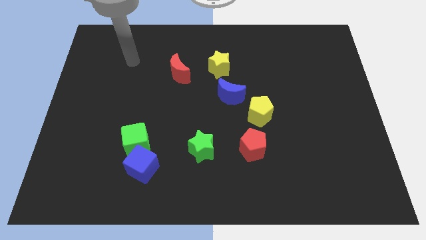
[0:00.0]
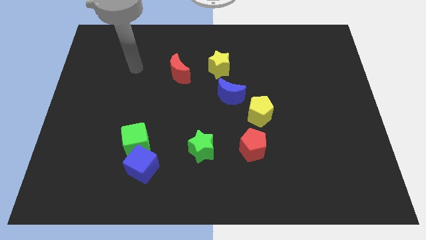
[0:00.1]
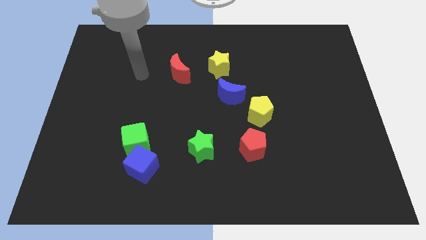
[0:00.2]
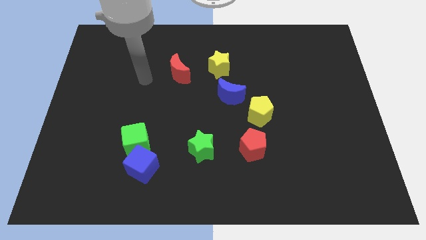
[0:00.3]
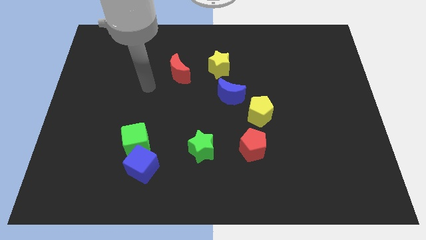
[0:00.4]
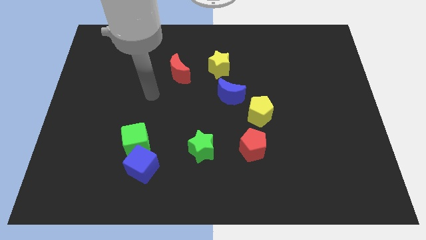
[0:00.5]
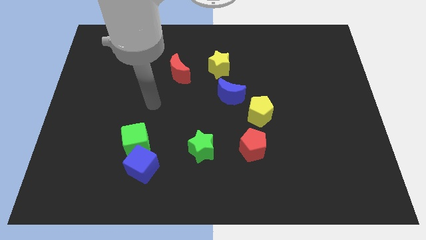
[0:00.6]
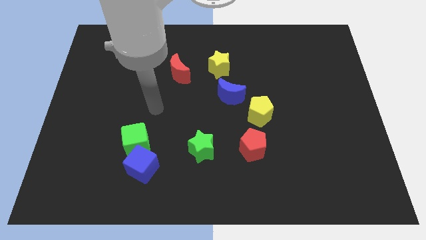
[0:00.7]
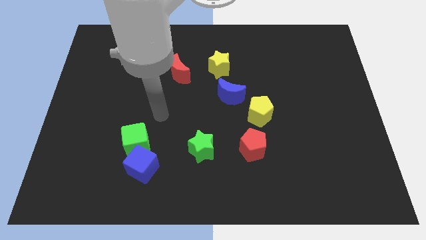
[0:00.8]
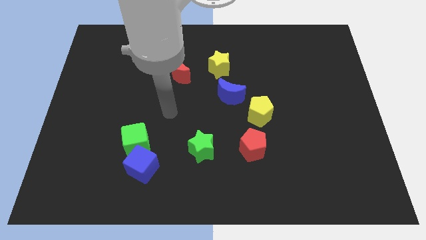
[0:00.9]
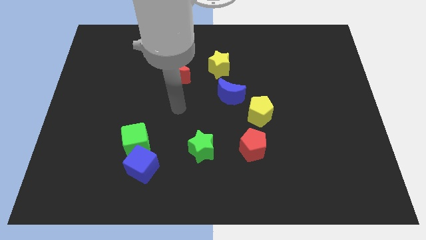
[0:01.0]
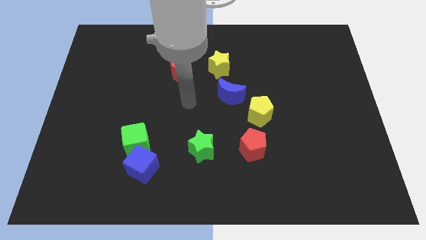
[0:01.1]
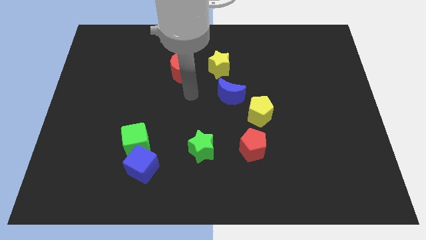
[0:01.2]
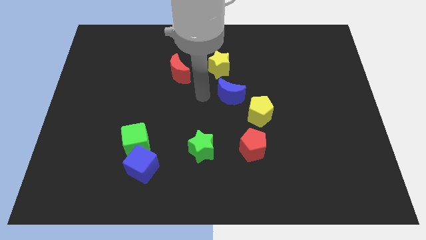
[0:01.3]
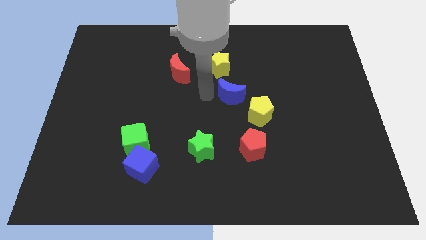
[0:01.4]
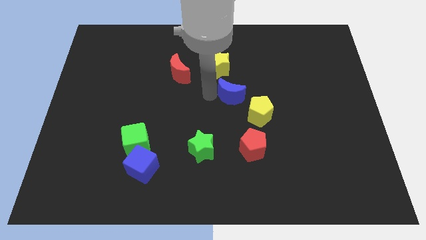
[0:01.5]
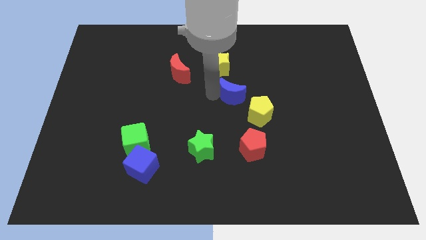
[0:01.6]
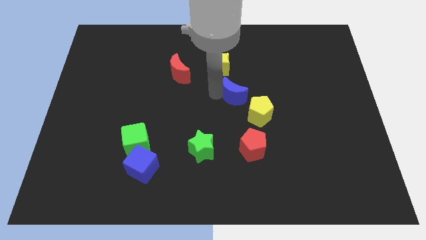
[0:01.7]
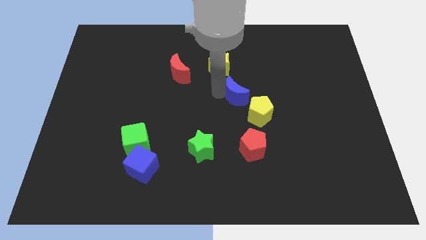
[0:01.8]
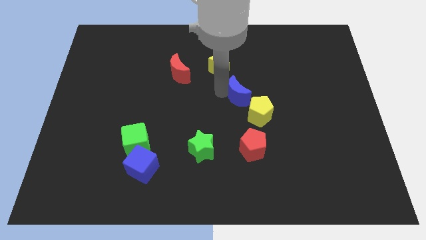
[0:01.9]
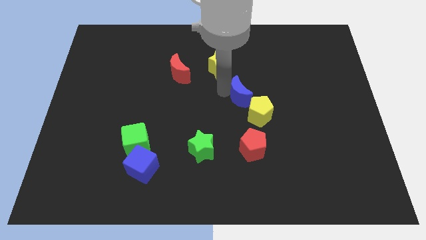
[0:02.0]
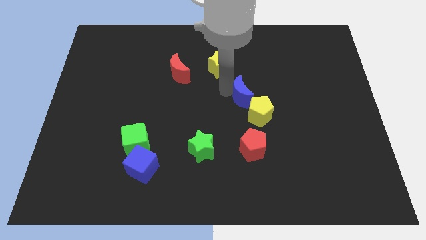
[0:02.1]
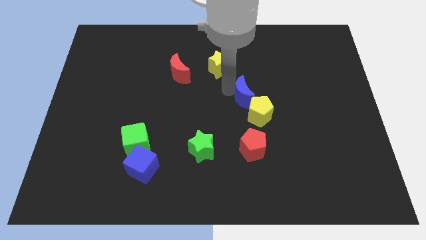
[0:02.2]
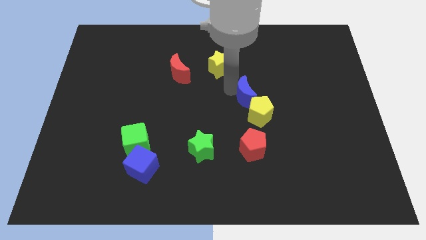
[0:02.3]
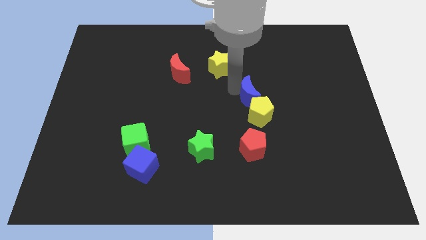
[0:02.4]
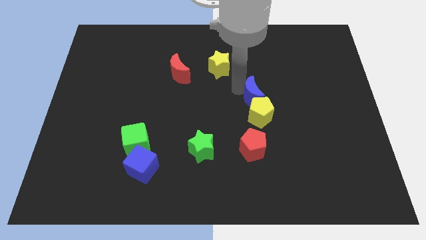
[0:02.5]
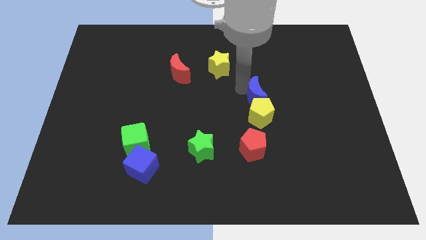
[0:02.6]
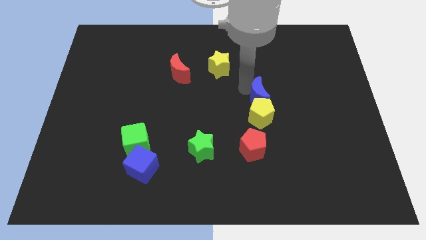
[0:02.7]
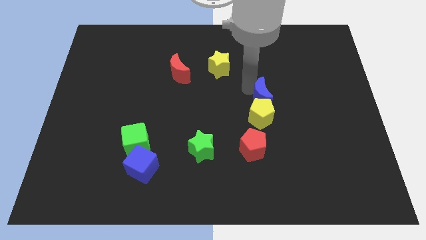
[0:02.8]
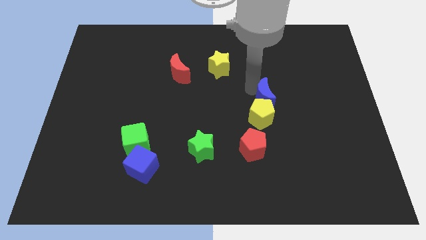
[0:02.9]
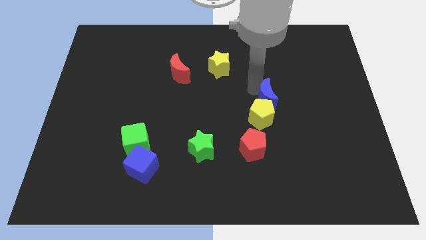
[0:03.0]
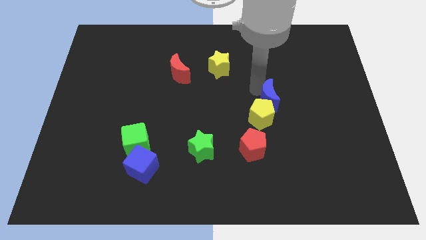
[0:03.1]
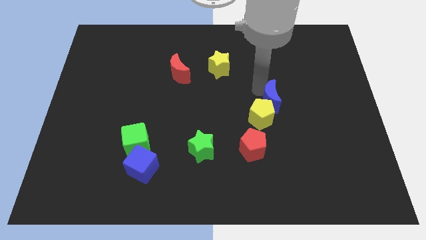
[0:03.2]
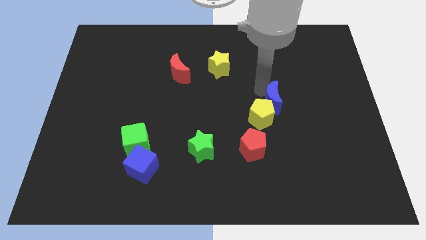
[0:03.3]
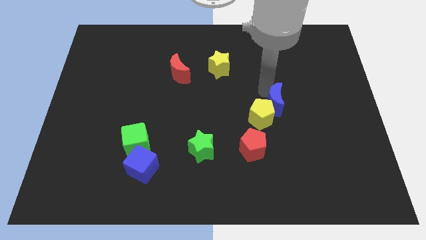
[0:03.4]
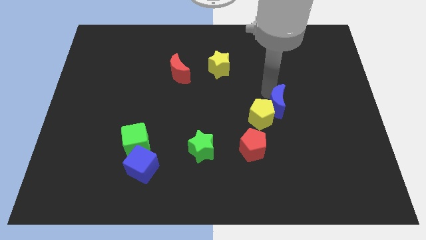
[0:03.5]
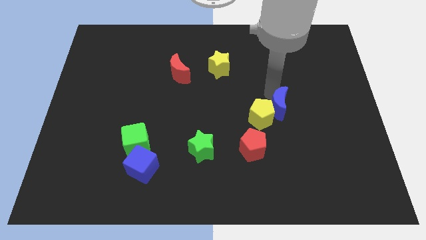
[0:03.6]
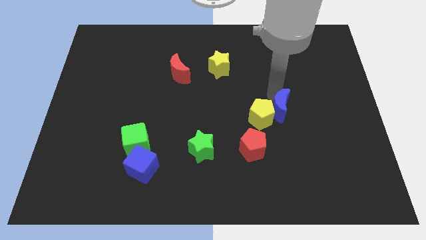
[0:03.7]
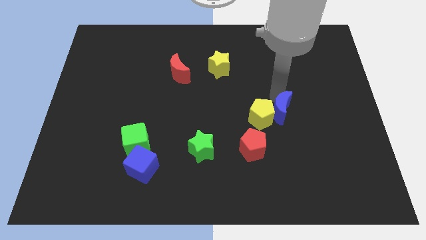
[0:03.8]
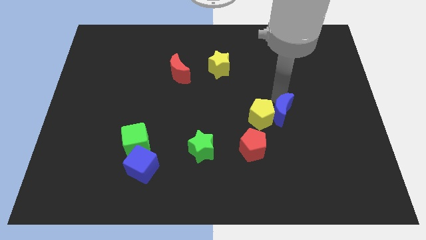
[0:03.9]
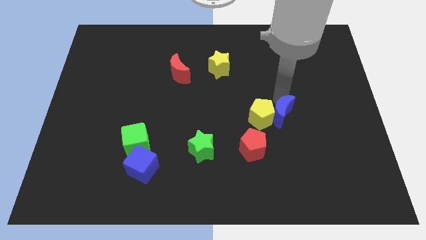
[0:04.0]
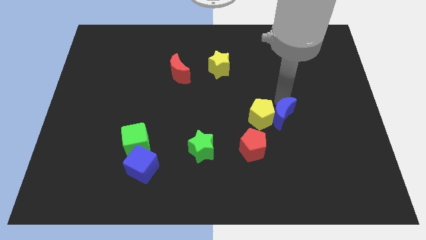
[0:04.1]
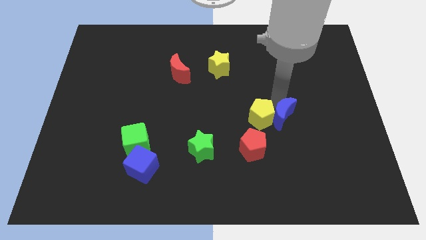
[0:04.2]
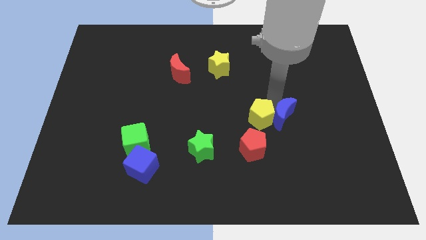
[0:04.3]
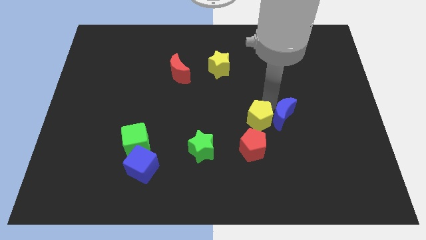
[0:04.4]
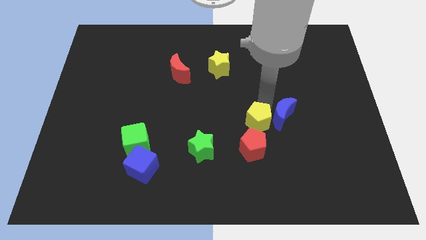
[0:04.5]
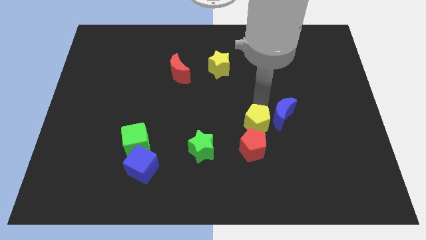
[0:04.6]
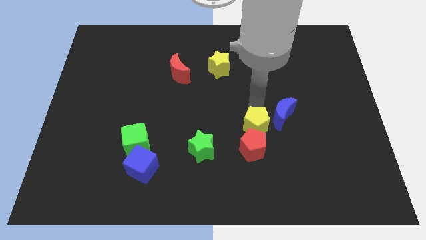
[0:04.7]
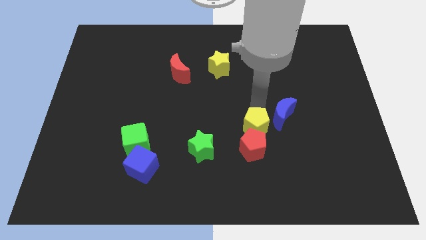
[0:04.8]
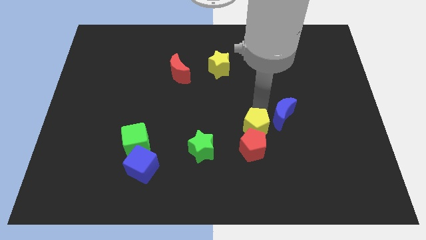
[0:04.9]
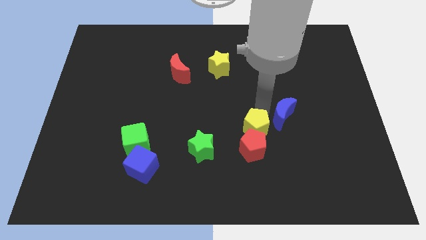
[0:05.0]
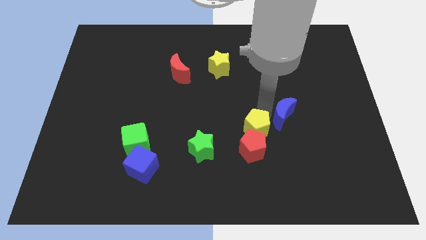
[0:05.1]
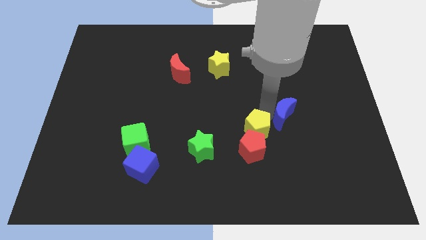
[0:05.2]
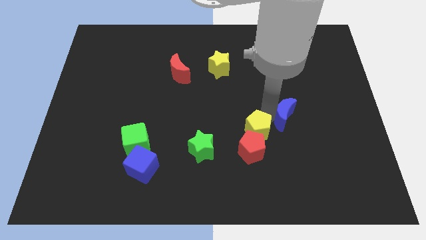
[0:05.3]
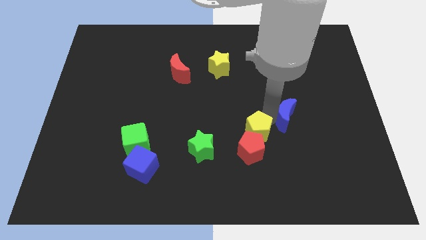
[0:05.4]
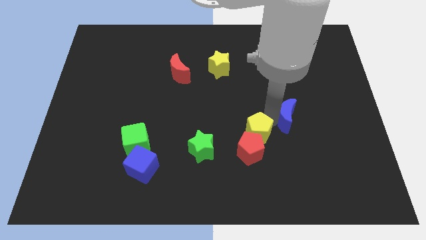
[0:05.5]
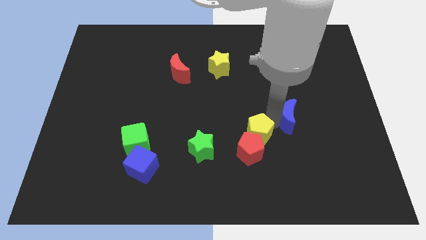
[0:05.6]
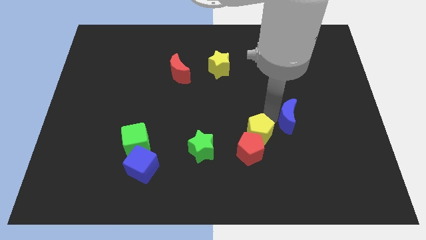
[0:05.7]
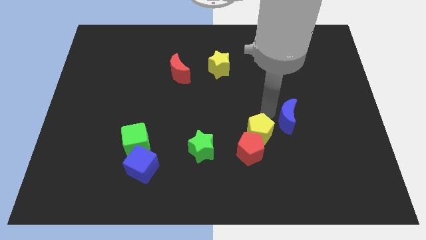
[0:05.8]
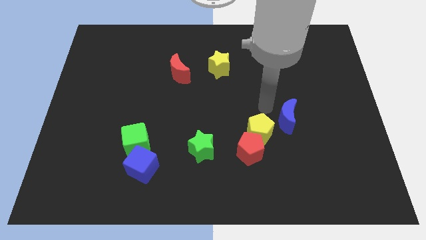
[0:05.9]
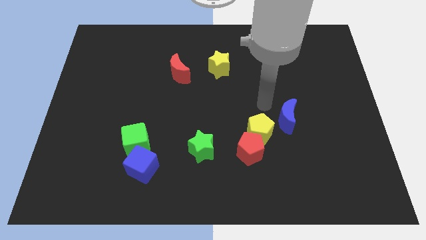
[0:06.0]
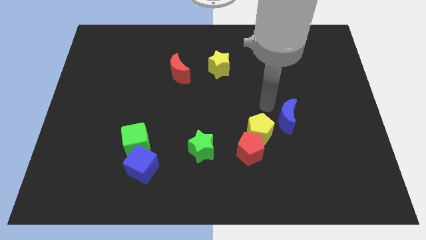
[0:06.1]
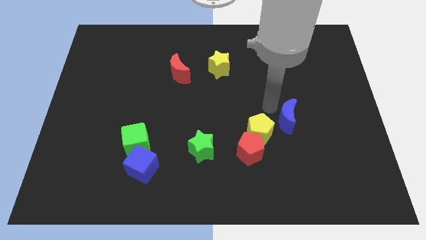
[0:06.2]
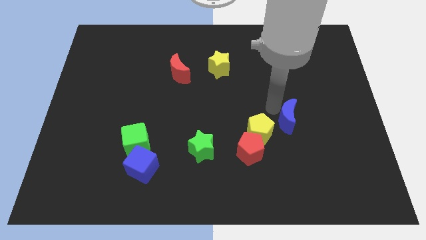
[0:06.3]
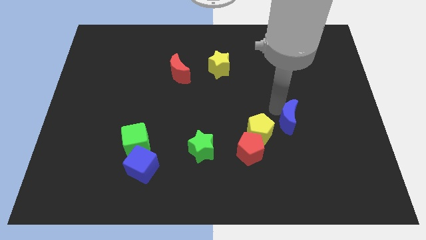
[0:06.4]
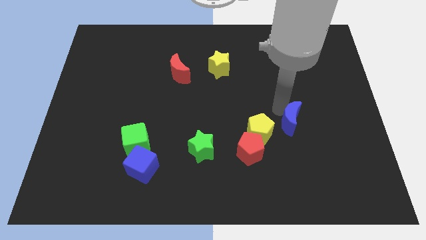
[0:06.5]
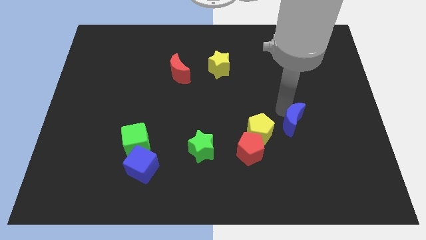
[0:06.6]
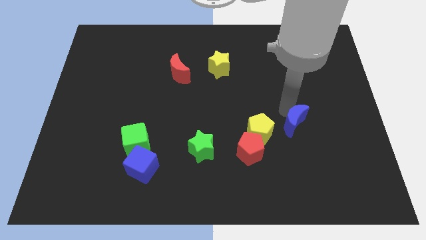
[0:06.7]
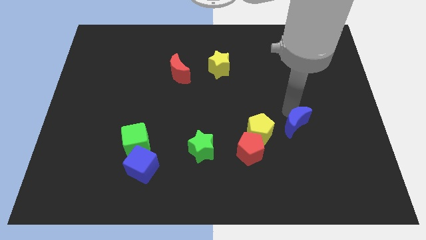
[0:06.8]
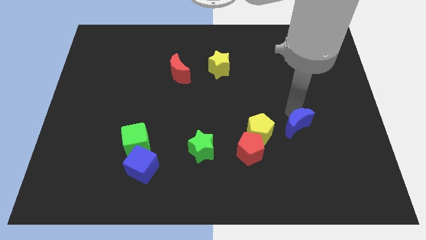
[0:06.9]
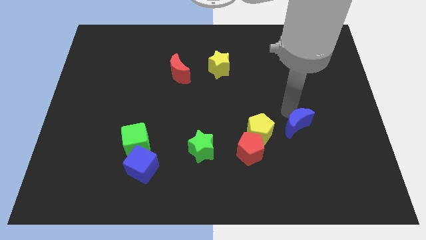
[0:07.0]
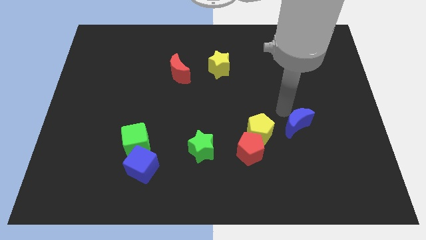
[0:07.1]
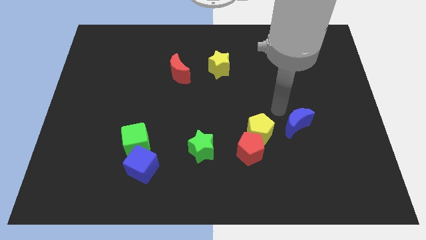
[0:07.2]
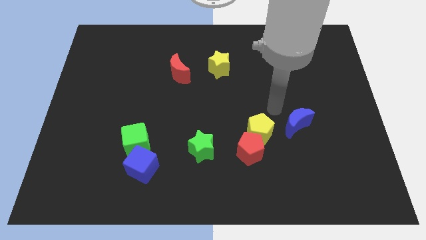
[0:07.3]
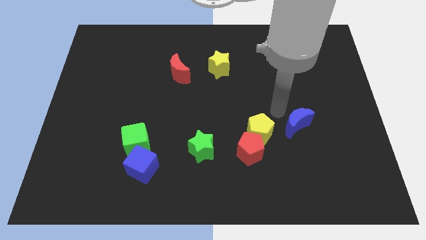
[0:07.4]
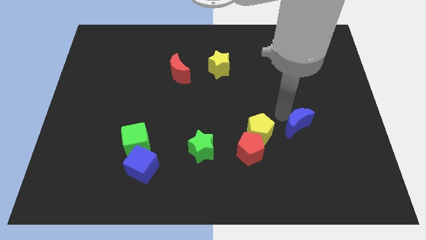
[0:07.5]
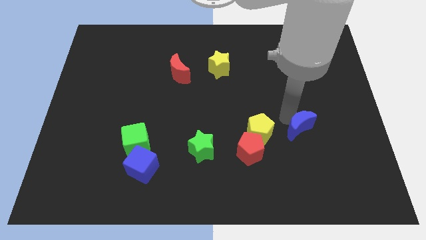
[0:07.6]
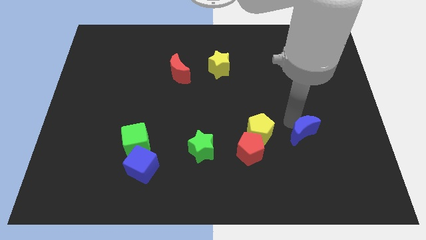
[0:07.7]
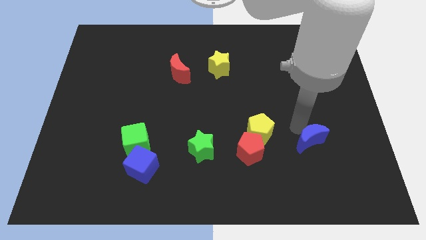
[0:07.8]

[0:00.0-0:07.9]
push the blue moon diagonally down and to the right

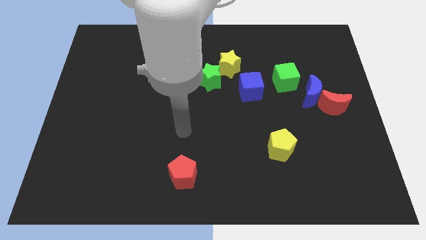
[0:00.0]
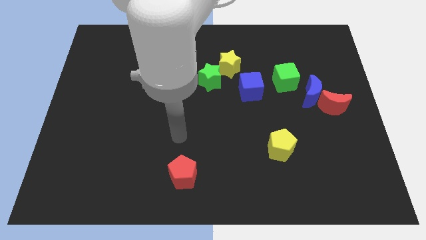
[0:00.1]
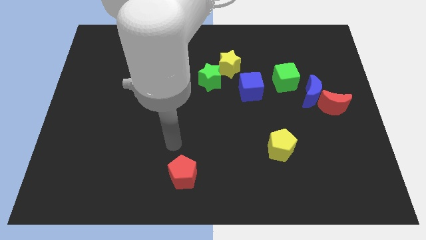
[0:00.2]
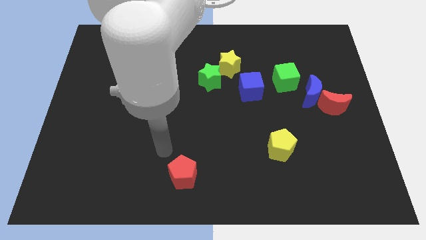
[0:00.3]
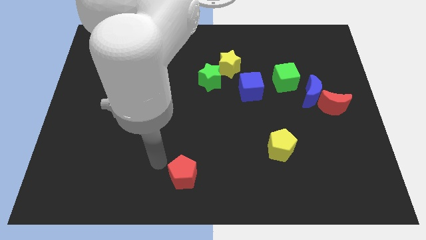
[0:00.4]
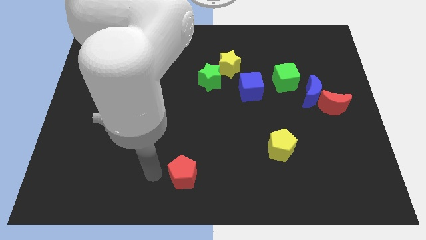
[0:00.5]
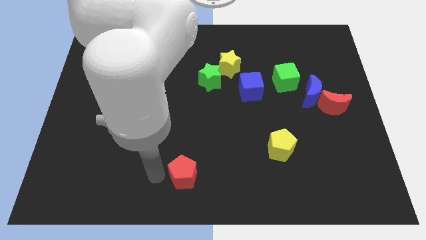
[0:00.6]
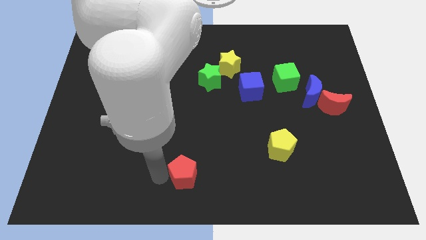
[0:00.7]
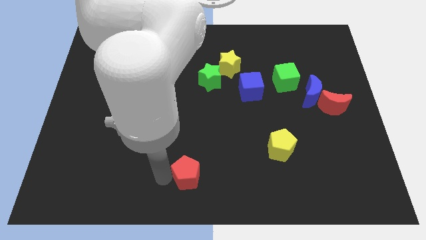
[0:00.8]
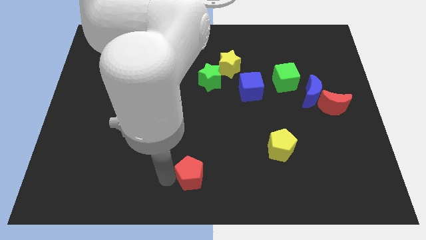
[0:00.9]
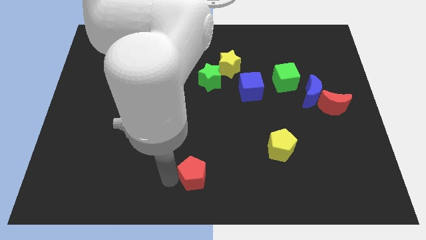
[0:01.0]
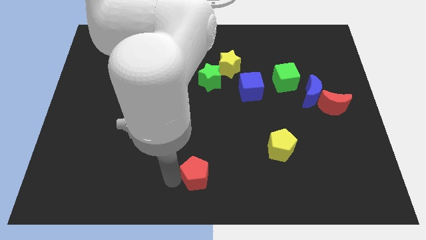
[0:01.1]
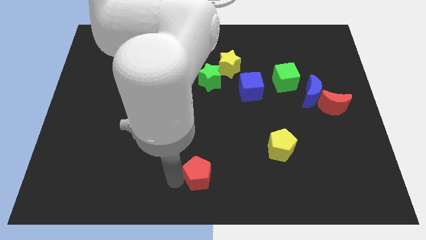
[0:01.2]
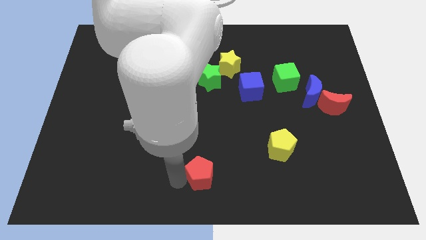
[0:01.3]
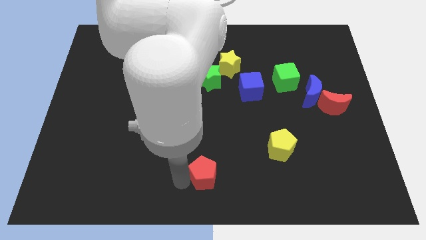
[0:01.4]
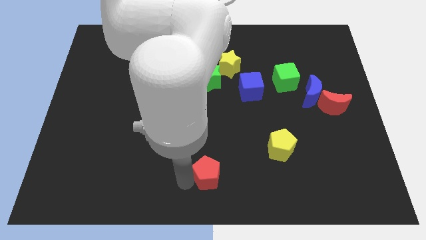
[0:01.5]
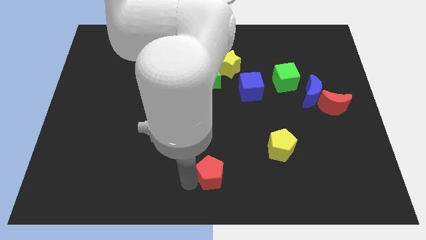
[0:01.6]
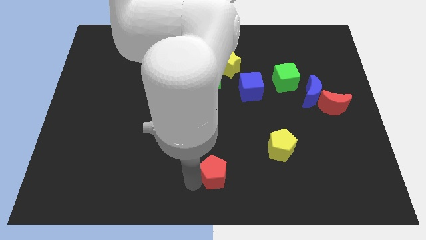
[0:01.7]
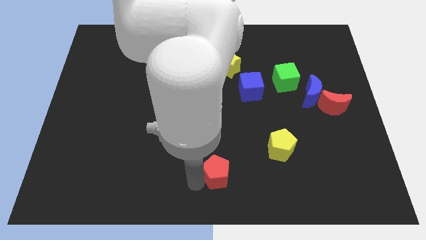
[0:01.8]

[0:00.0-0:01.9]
push the red pentagon right slightly
